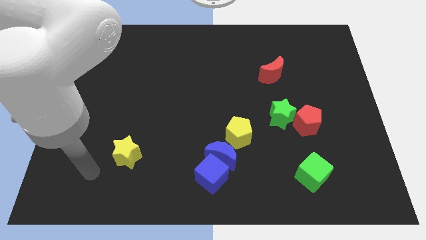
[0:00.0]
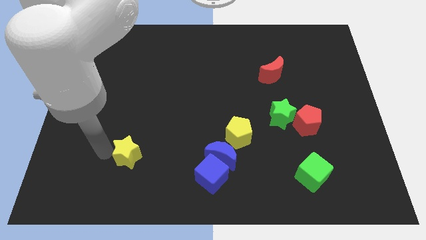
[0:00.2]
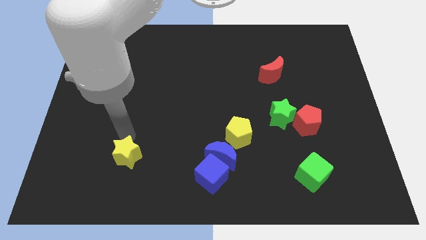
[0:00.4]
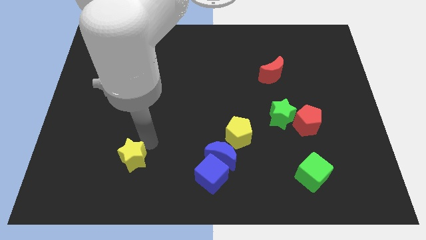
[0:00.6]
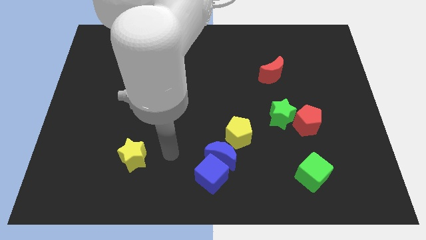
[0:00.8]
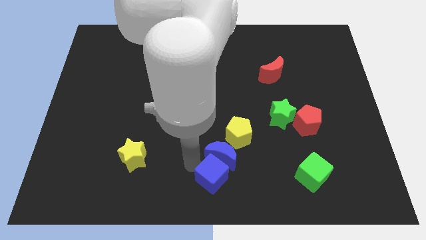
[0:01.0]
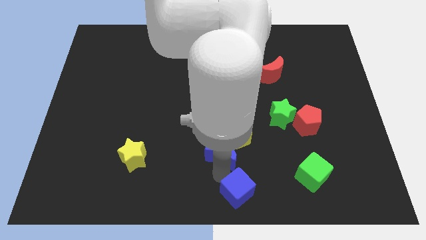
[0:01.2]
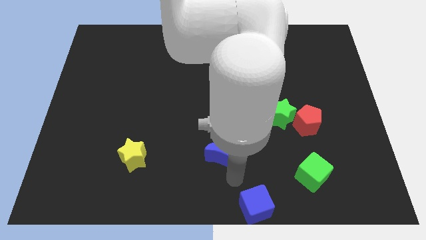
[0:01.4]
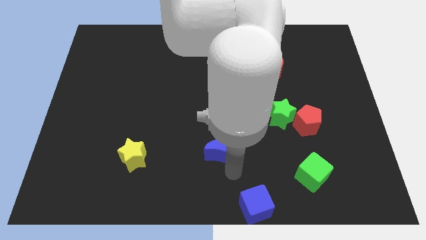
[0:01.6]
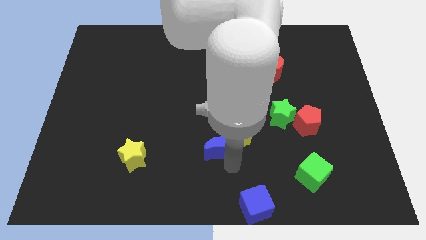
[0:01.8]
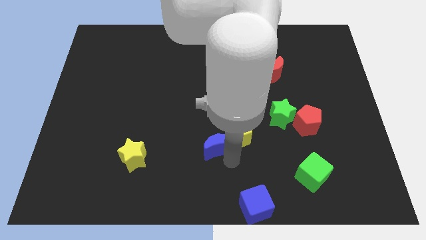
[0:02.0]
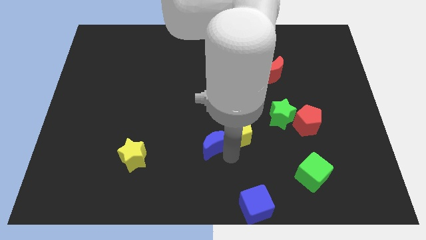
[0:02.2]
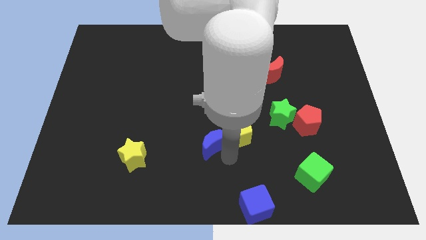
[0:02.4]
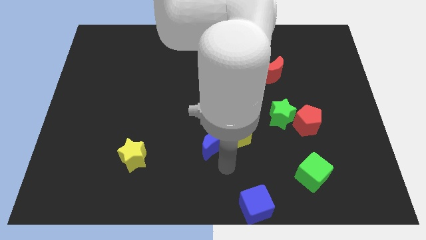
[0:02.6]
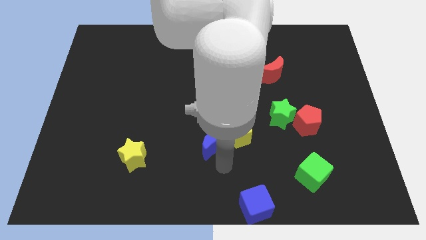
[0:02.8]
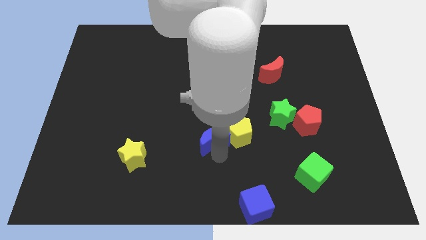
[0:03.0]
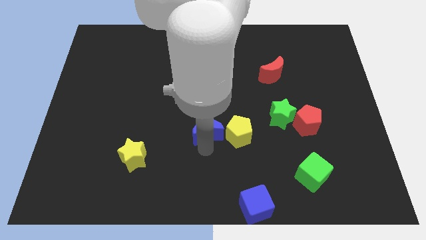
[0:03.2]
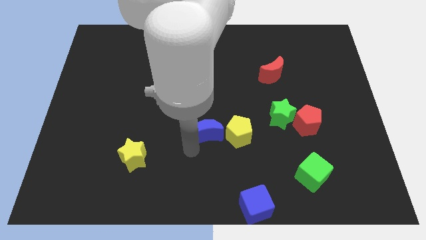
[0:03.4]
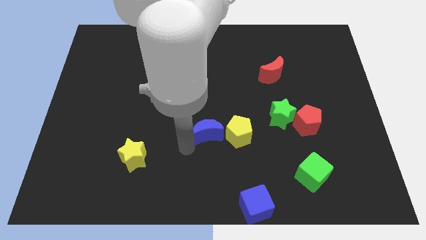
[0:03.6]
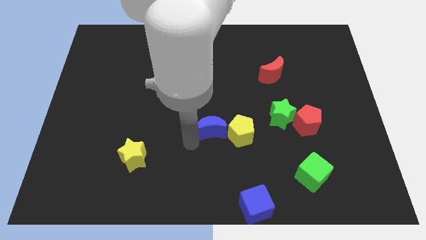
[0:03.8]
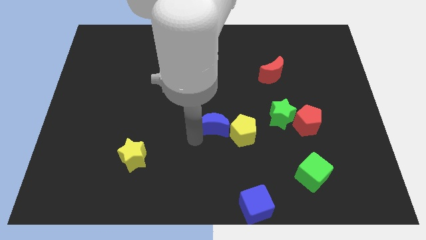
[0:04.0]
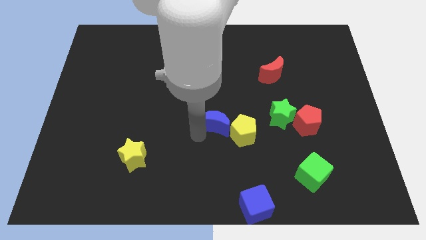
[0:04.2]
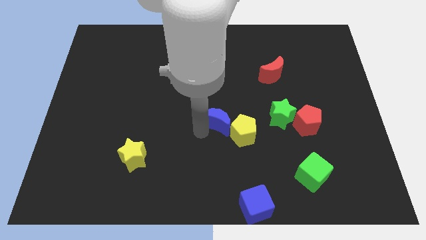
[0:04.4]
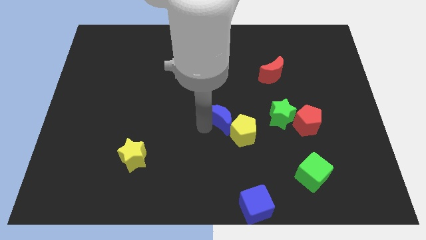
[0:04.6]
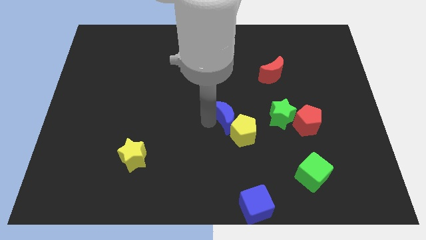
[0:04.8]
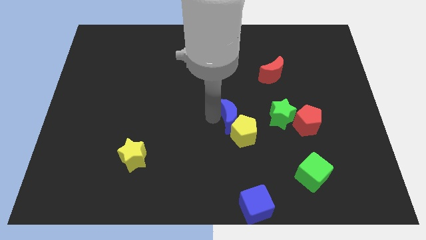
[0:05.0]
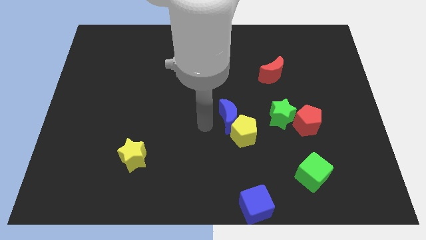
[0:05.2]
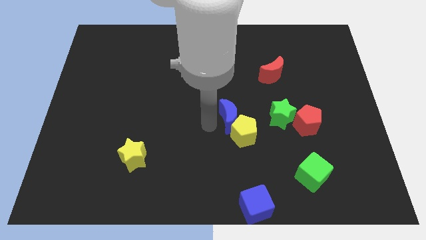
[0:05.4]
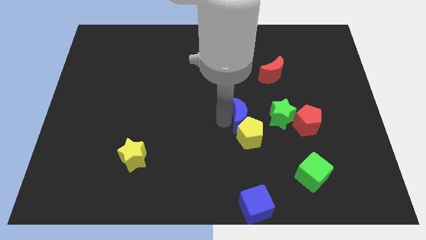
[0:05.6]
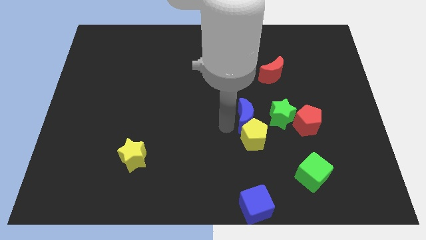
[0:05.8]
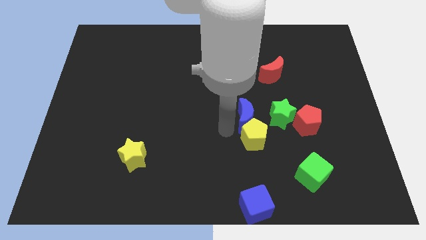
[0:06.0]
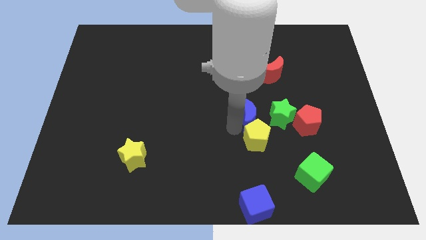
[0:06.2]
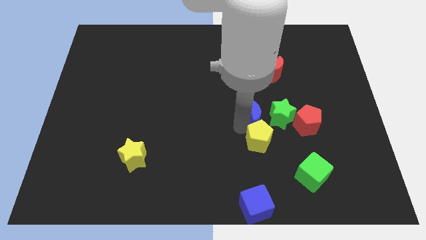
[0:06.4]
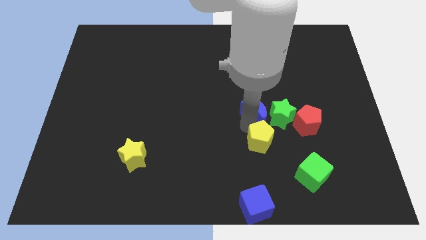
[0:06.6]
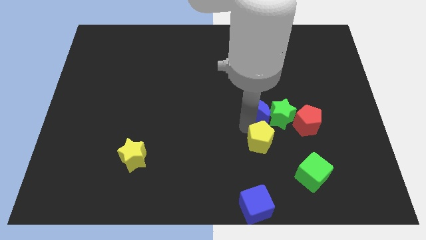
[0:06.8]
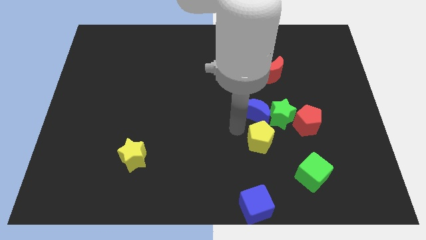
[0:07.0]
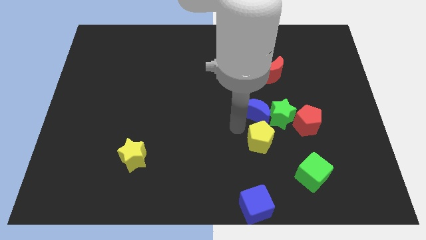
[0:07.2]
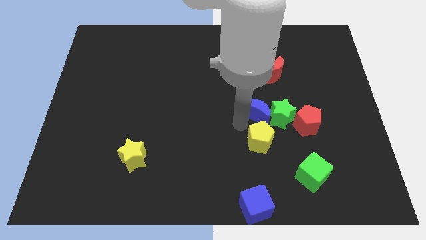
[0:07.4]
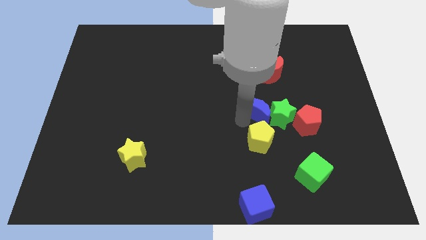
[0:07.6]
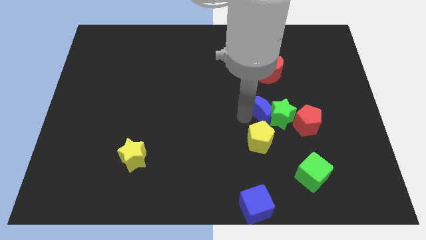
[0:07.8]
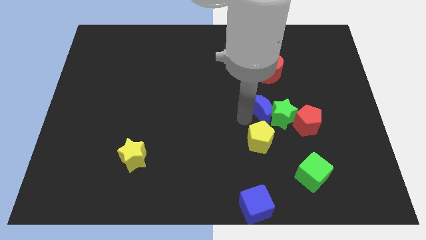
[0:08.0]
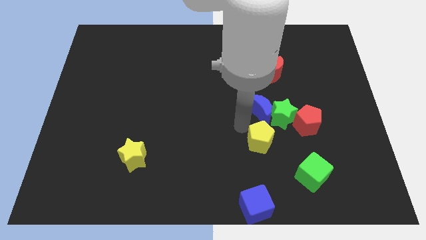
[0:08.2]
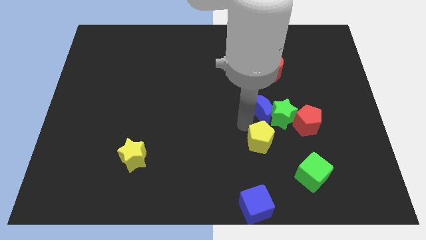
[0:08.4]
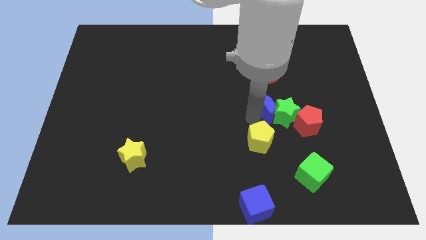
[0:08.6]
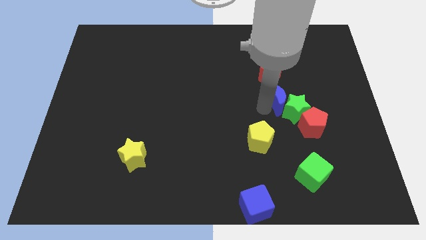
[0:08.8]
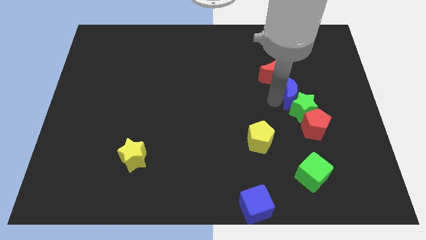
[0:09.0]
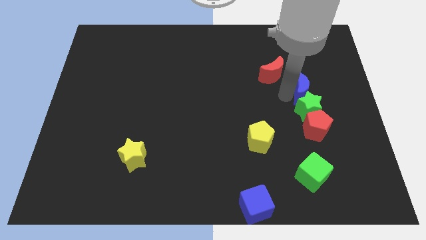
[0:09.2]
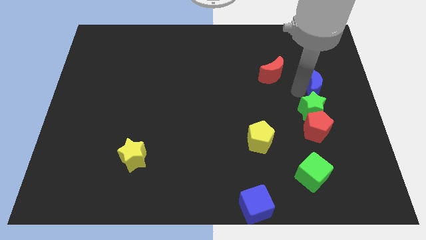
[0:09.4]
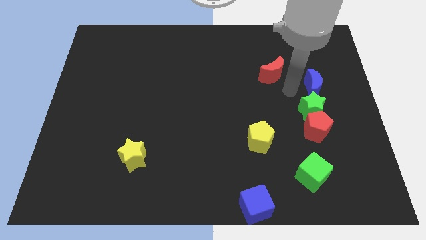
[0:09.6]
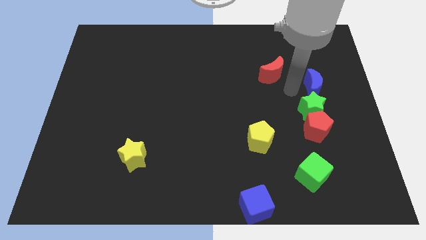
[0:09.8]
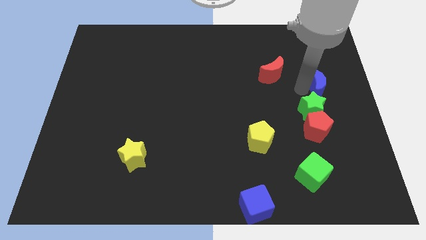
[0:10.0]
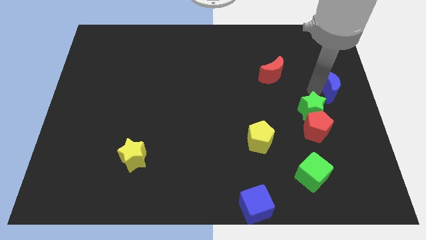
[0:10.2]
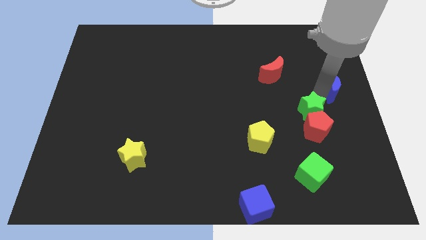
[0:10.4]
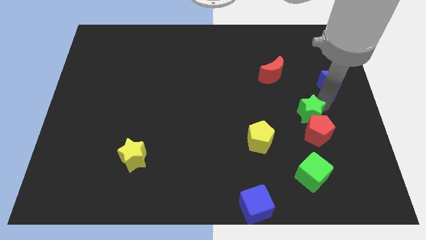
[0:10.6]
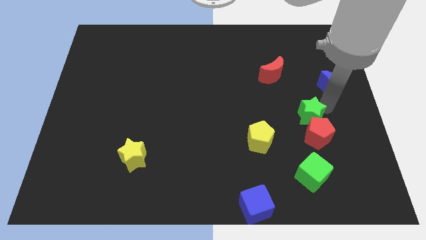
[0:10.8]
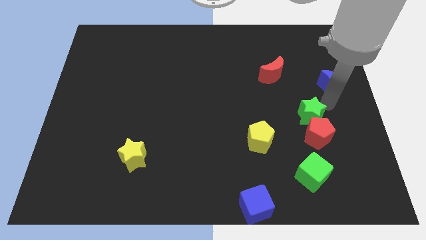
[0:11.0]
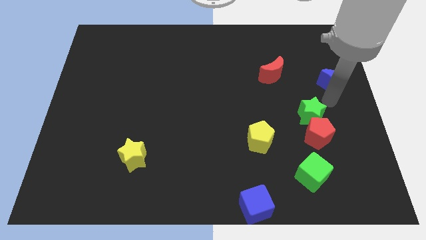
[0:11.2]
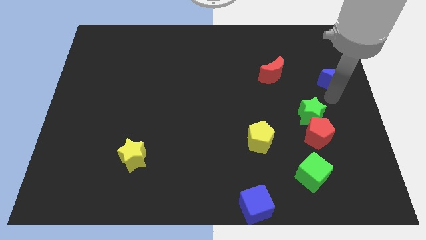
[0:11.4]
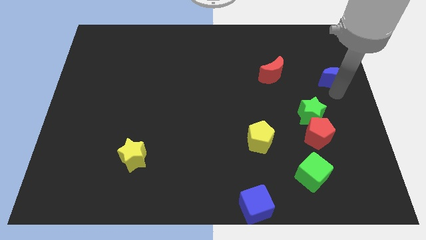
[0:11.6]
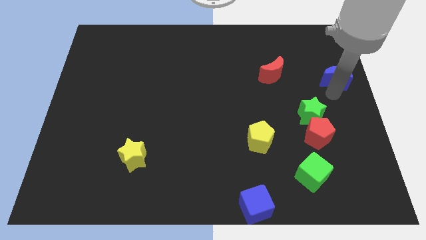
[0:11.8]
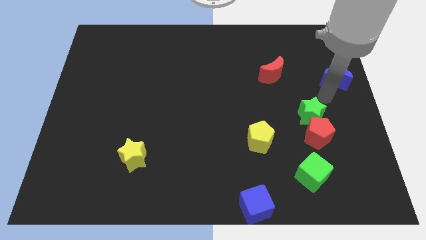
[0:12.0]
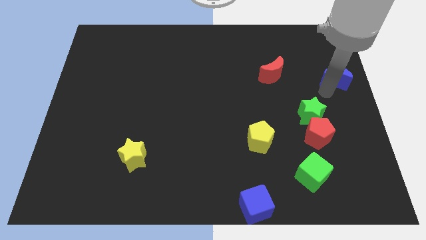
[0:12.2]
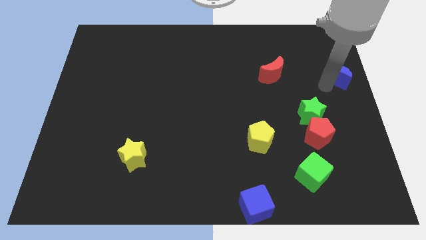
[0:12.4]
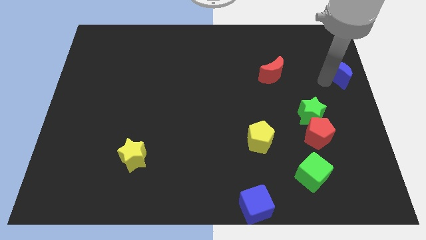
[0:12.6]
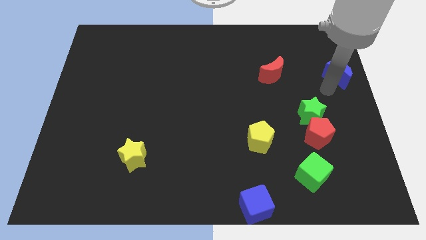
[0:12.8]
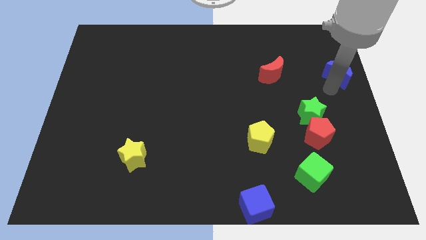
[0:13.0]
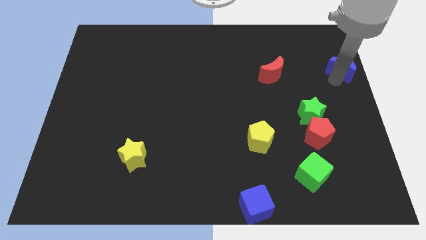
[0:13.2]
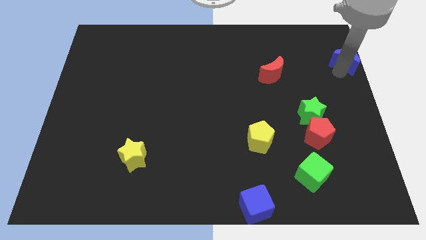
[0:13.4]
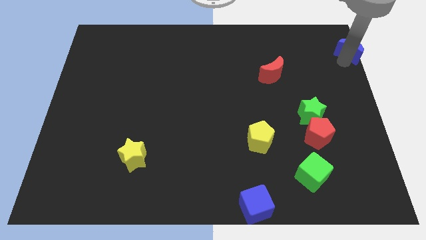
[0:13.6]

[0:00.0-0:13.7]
put the blue moon to the top right corner
